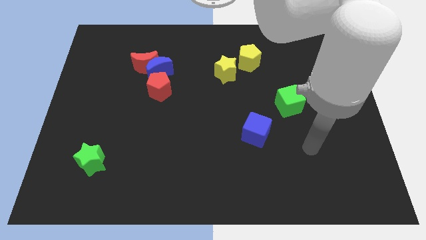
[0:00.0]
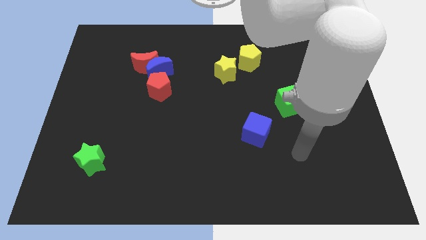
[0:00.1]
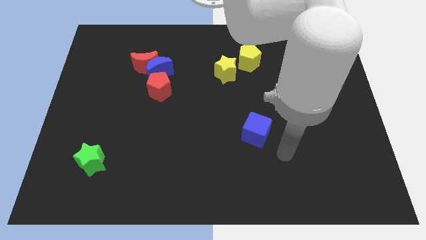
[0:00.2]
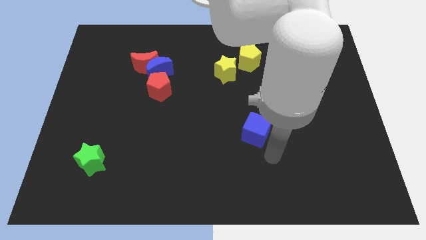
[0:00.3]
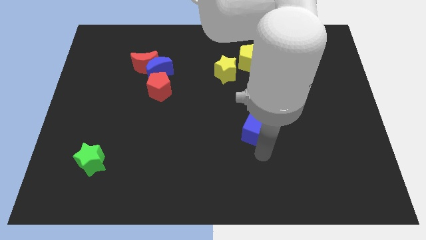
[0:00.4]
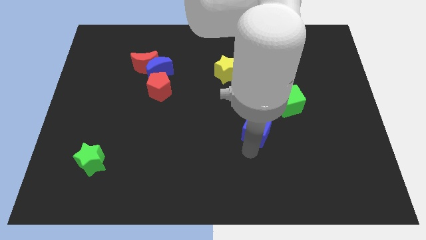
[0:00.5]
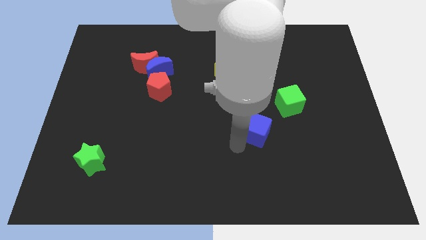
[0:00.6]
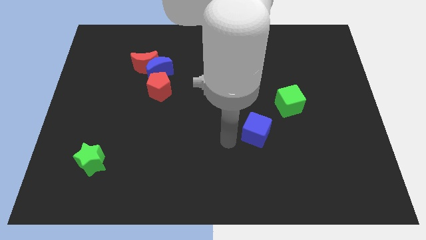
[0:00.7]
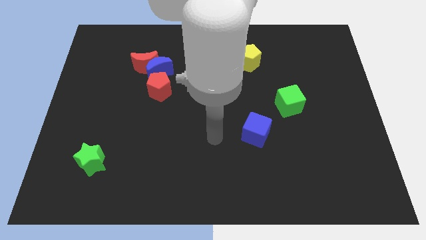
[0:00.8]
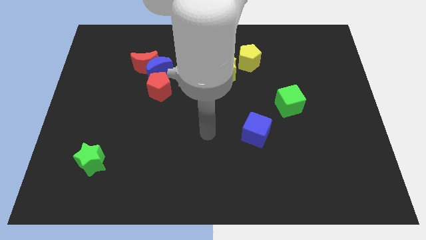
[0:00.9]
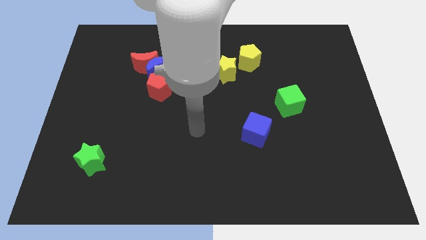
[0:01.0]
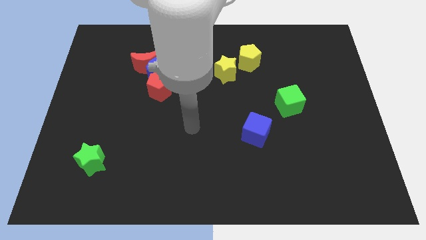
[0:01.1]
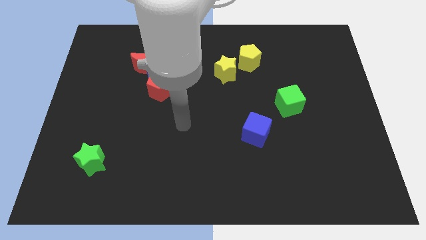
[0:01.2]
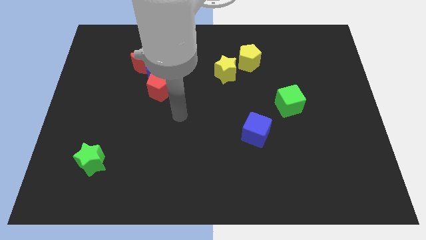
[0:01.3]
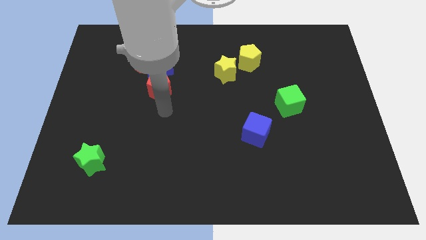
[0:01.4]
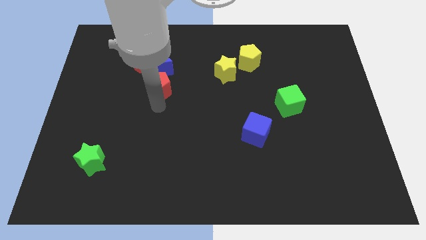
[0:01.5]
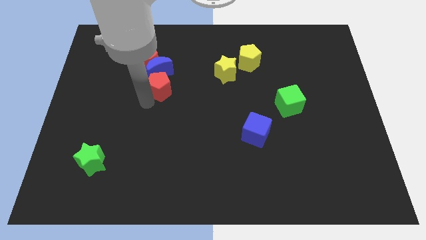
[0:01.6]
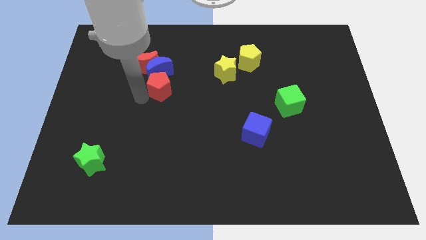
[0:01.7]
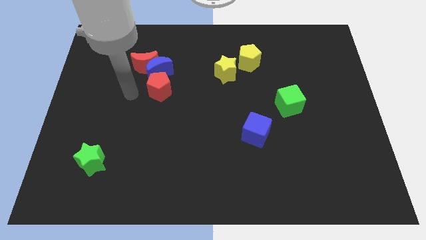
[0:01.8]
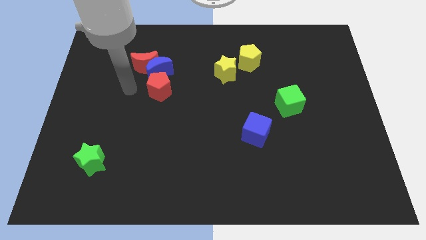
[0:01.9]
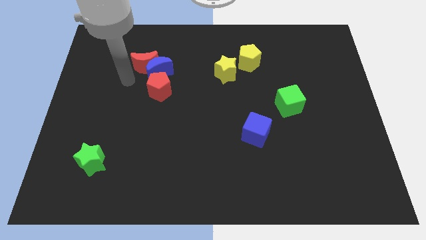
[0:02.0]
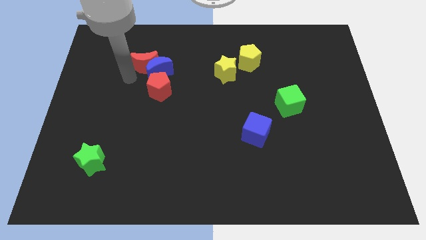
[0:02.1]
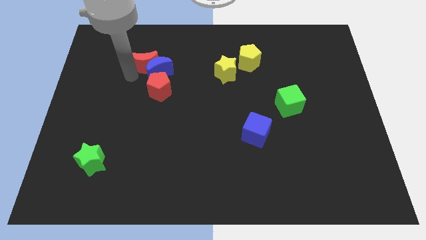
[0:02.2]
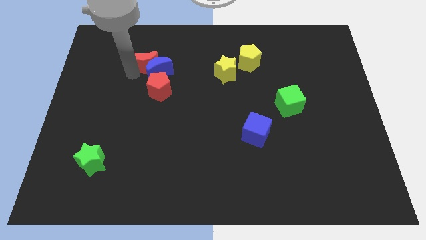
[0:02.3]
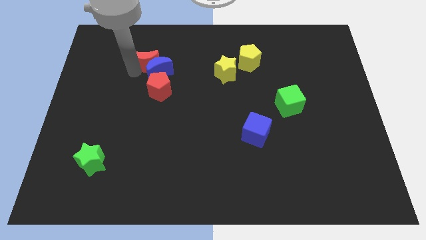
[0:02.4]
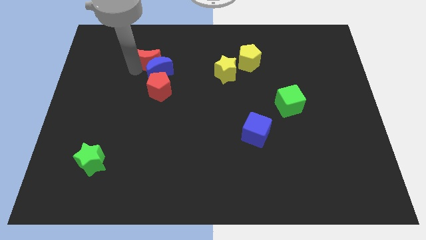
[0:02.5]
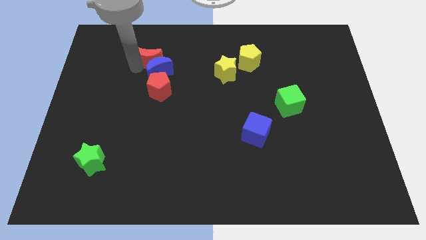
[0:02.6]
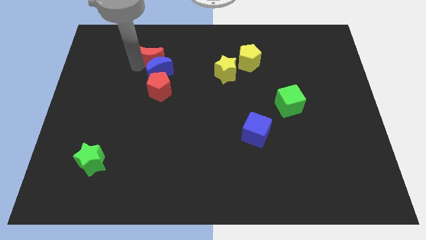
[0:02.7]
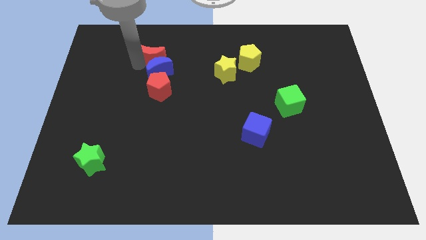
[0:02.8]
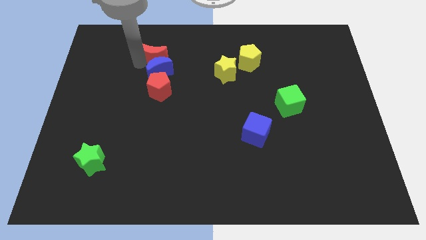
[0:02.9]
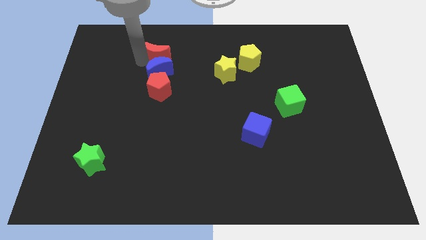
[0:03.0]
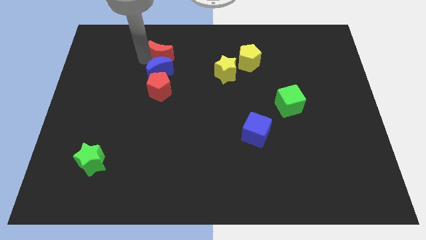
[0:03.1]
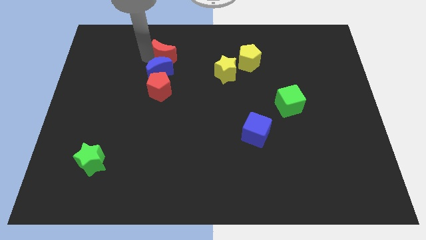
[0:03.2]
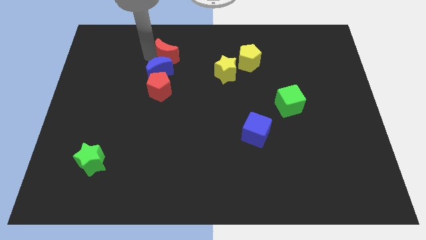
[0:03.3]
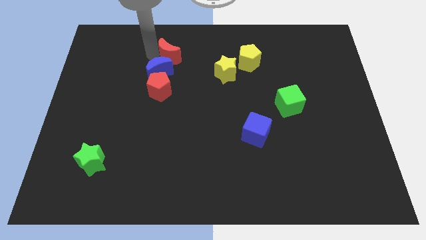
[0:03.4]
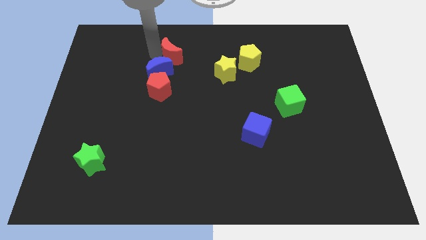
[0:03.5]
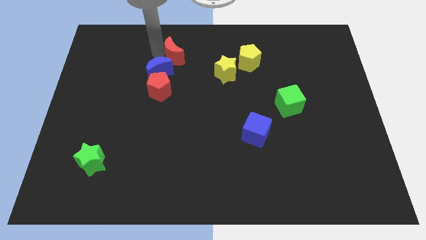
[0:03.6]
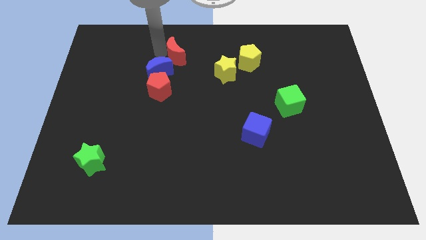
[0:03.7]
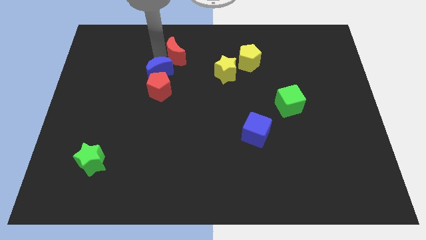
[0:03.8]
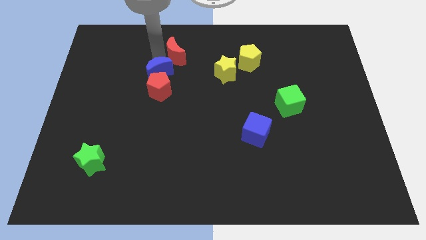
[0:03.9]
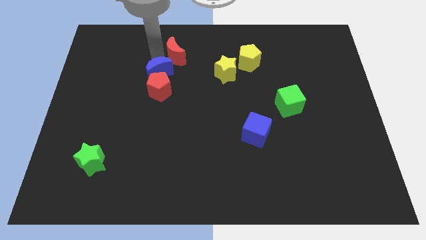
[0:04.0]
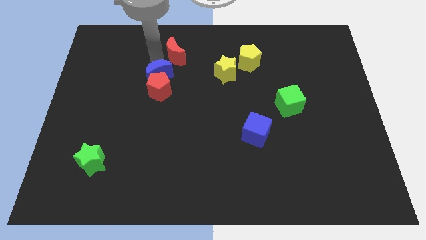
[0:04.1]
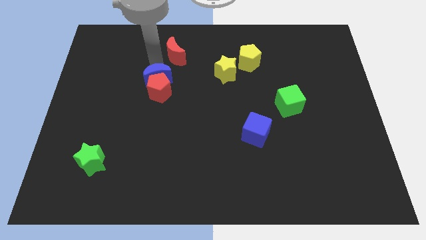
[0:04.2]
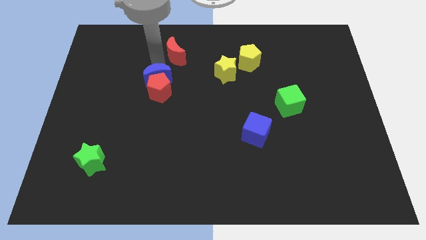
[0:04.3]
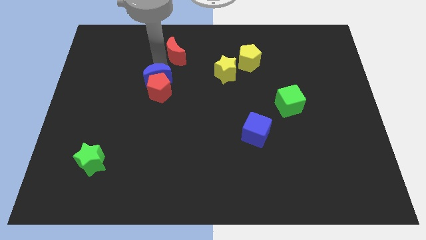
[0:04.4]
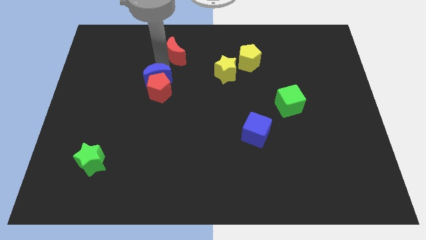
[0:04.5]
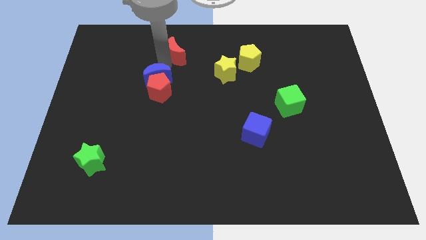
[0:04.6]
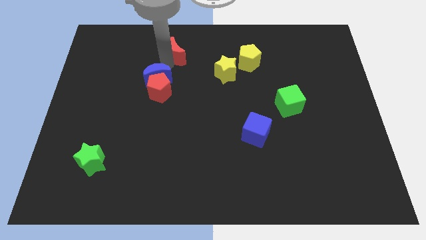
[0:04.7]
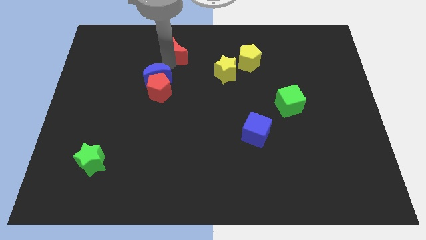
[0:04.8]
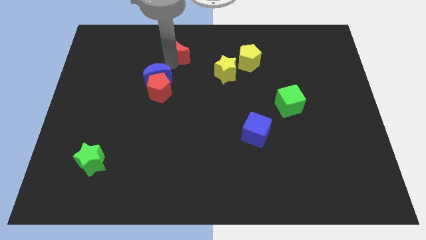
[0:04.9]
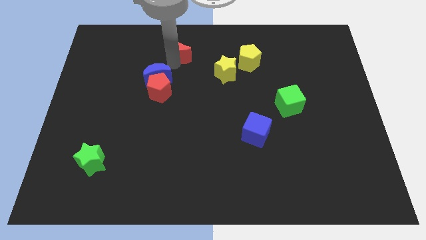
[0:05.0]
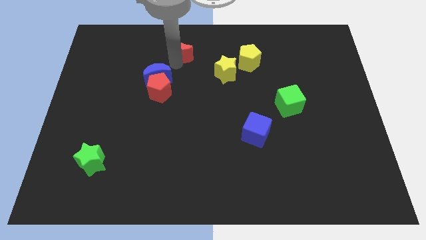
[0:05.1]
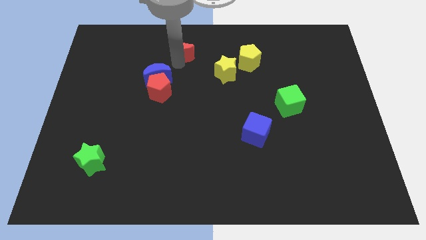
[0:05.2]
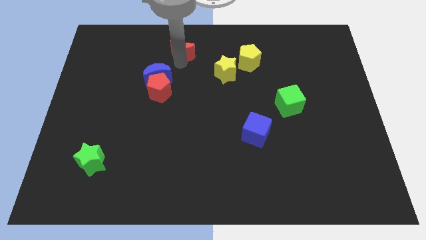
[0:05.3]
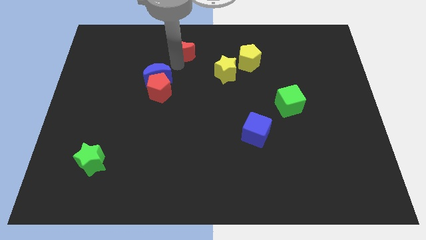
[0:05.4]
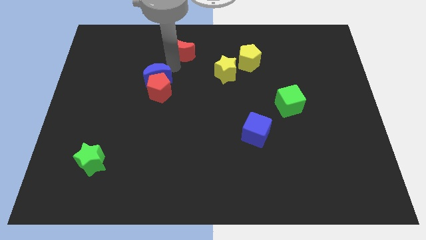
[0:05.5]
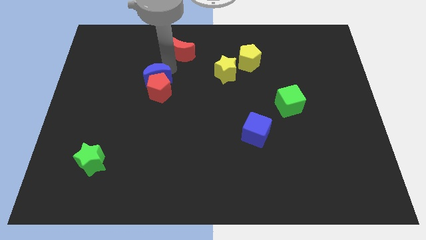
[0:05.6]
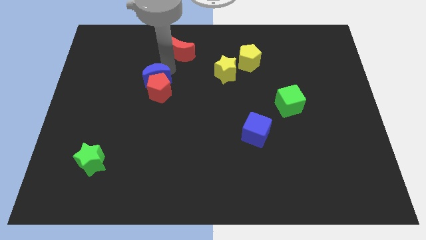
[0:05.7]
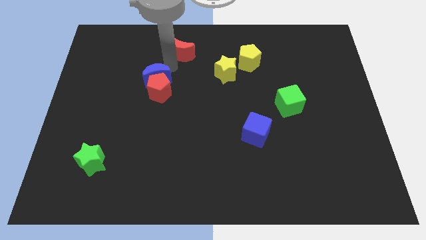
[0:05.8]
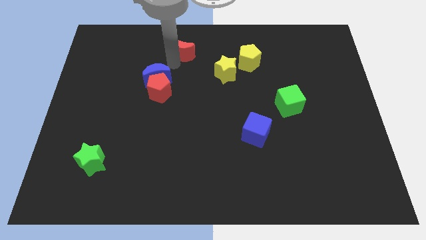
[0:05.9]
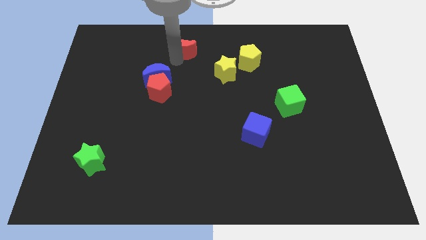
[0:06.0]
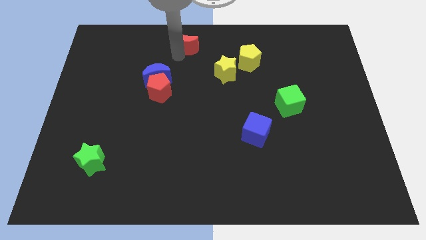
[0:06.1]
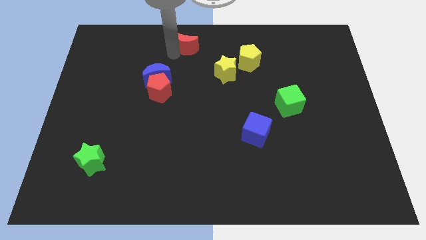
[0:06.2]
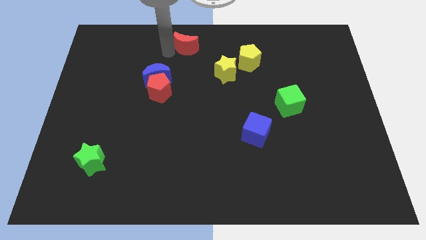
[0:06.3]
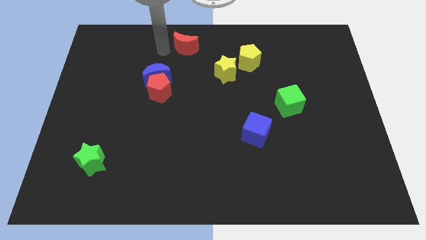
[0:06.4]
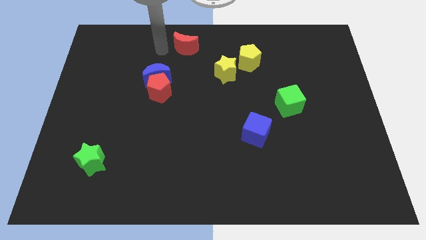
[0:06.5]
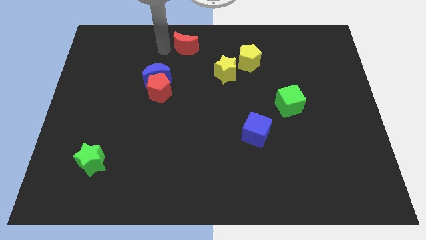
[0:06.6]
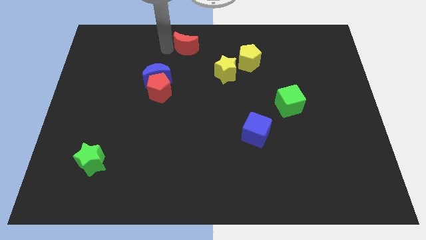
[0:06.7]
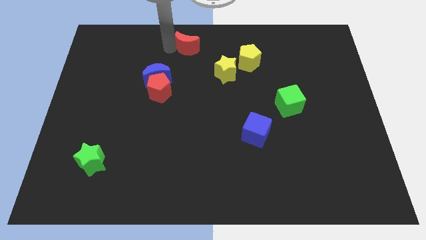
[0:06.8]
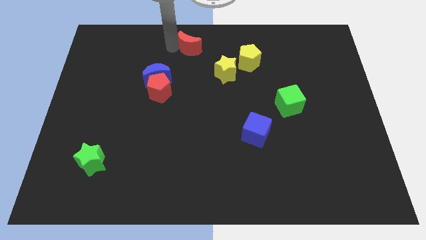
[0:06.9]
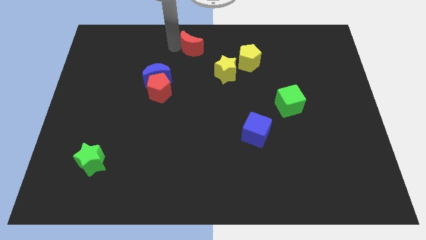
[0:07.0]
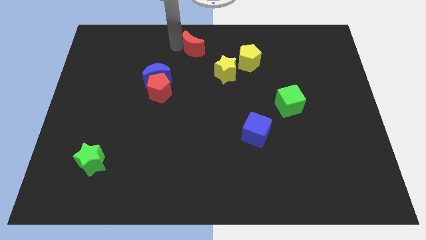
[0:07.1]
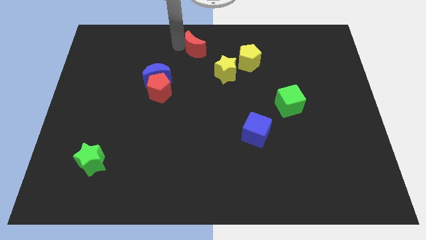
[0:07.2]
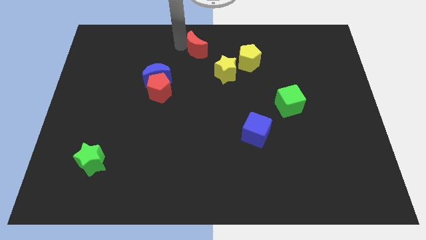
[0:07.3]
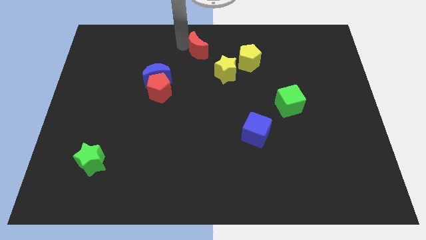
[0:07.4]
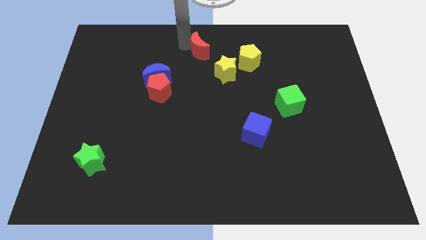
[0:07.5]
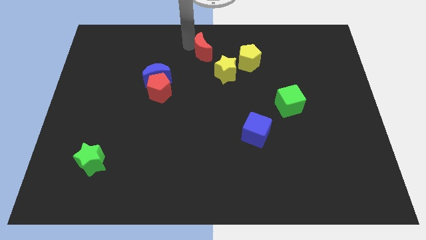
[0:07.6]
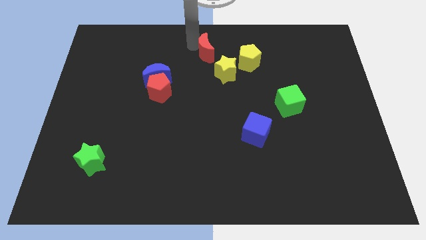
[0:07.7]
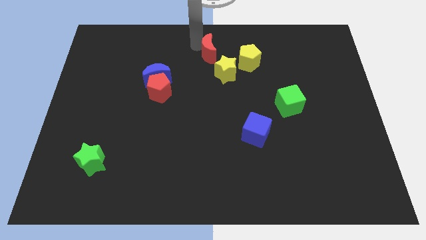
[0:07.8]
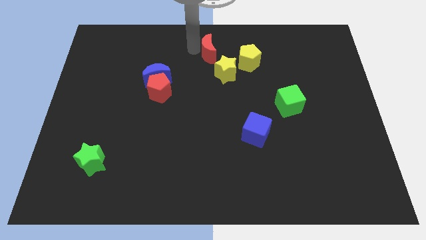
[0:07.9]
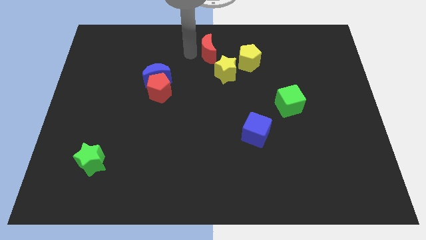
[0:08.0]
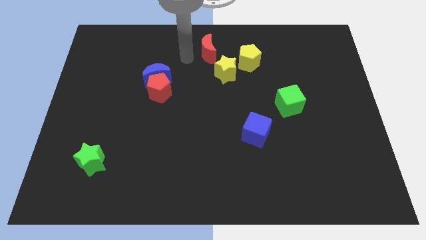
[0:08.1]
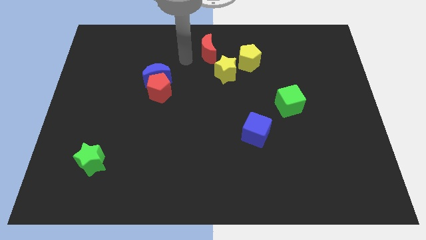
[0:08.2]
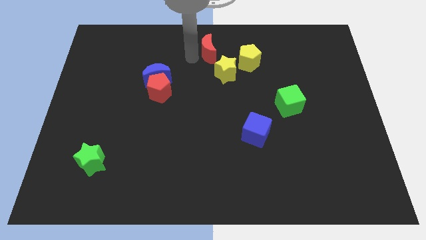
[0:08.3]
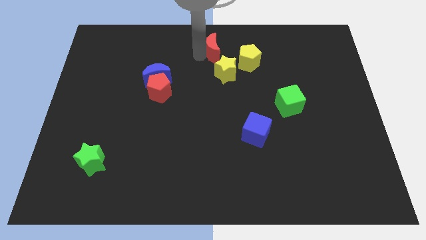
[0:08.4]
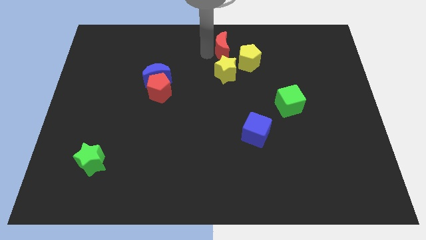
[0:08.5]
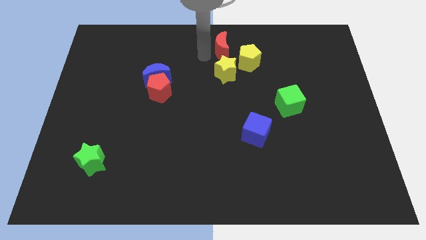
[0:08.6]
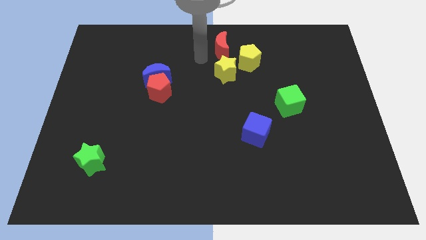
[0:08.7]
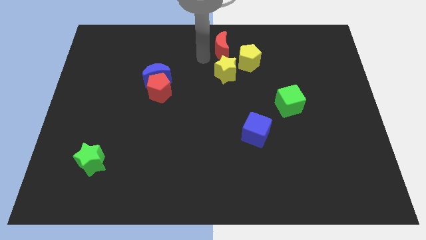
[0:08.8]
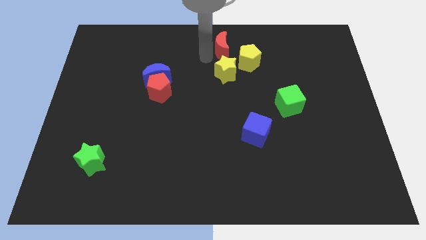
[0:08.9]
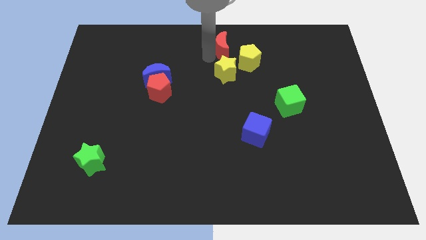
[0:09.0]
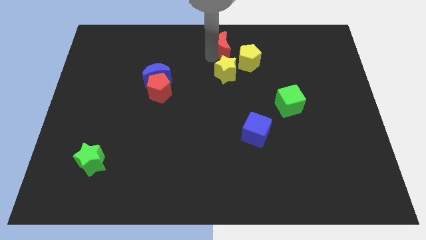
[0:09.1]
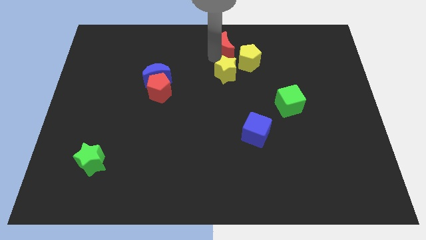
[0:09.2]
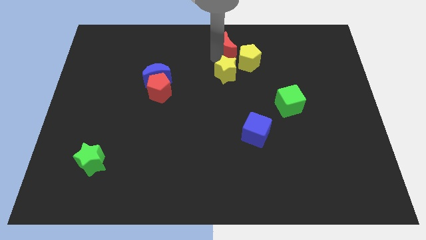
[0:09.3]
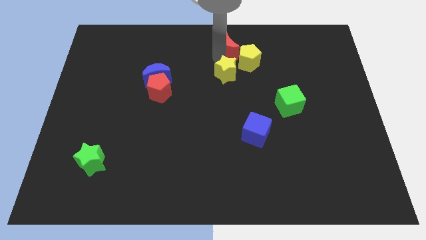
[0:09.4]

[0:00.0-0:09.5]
push the red moon to the right
